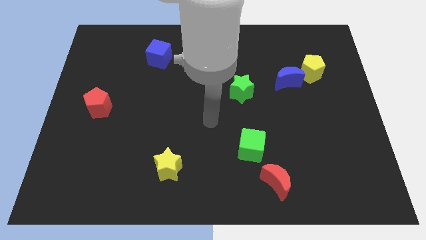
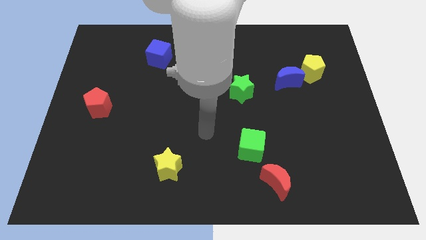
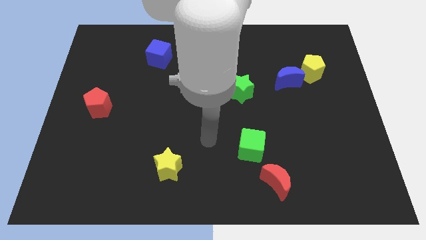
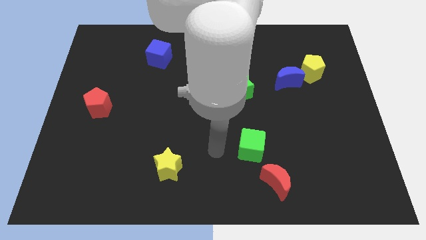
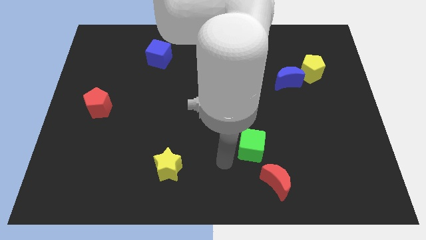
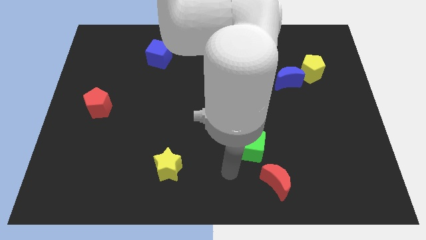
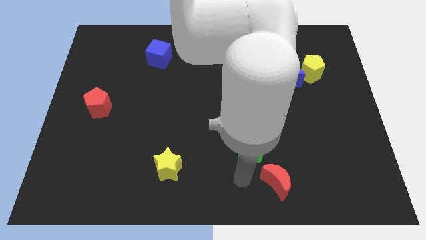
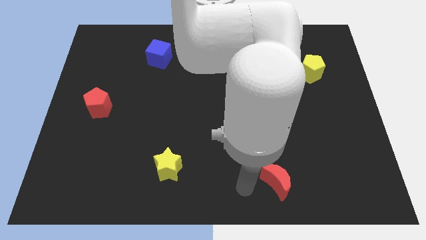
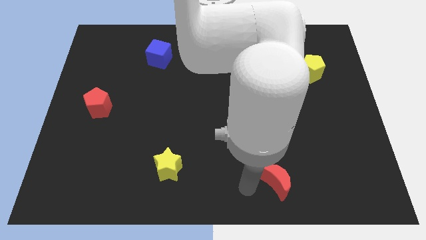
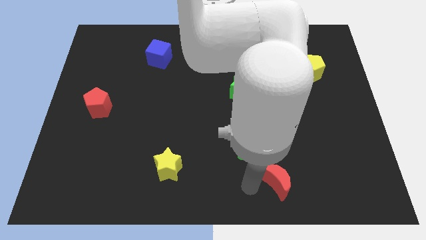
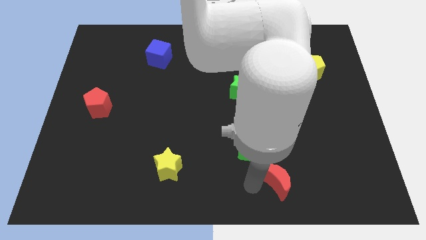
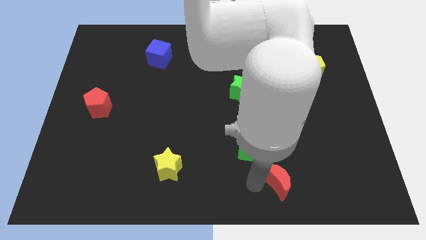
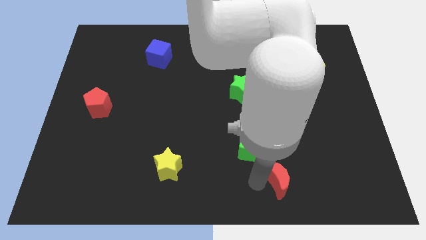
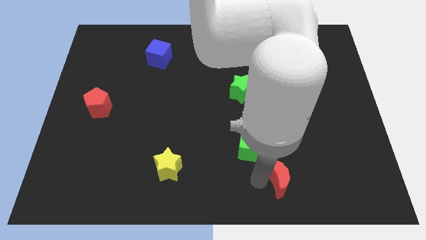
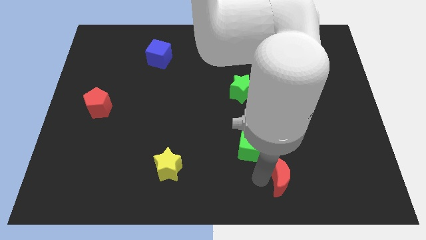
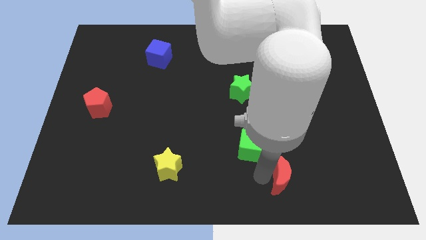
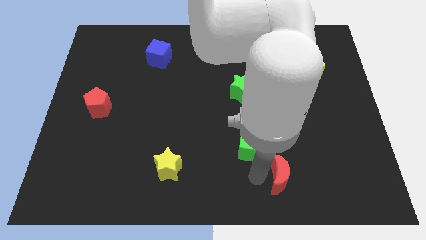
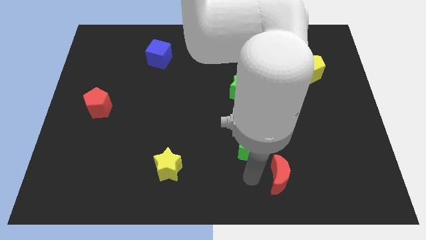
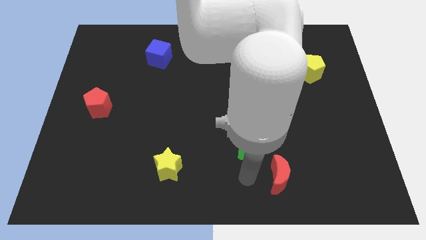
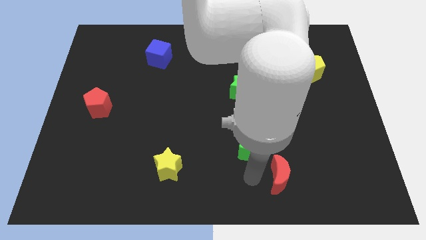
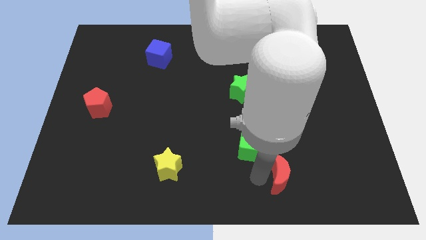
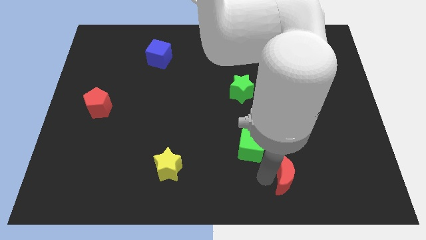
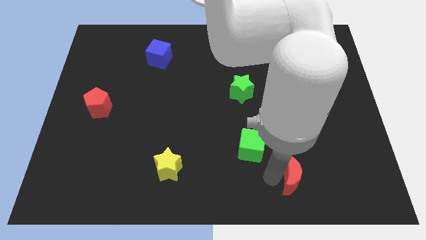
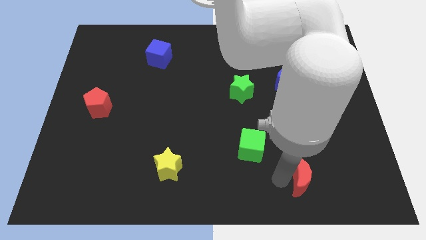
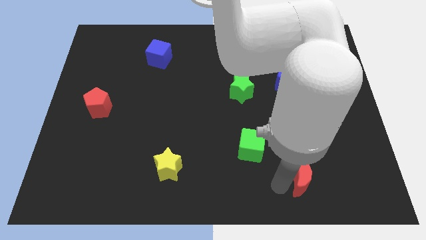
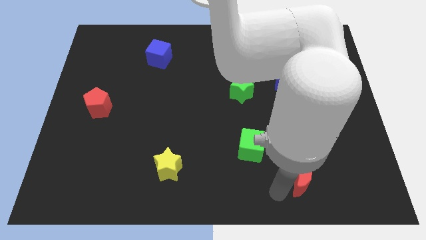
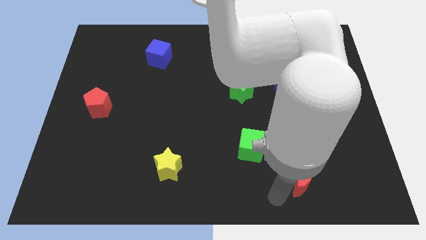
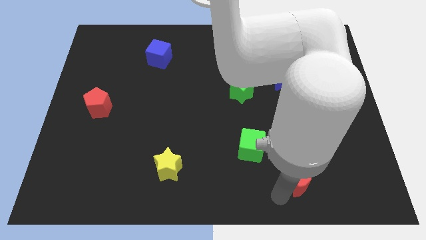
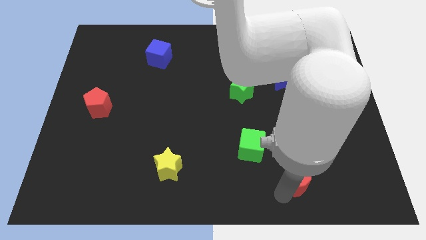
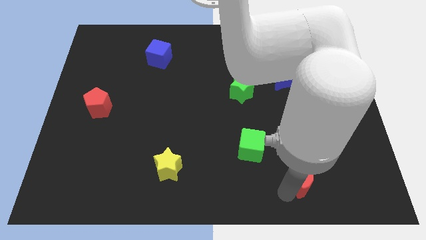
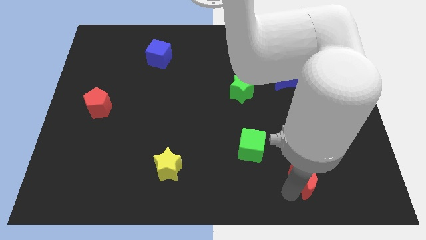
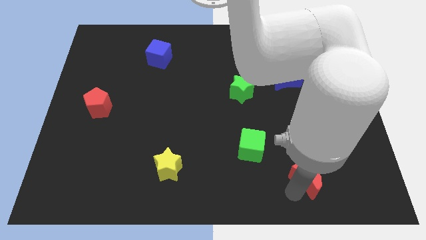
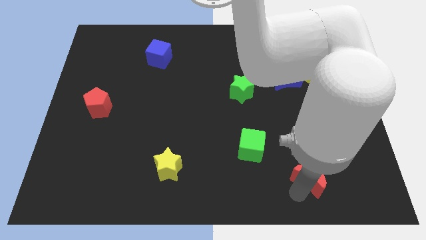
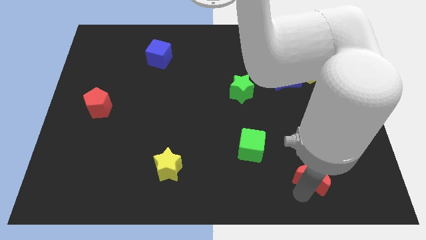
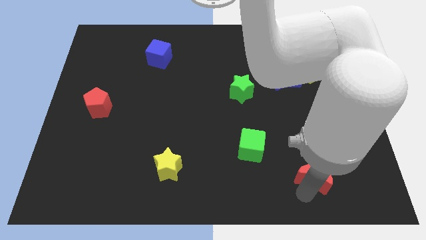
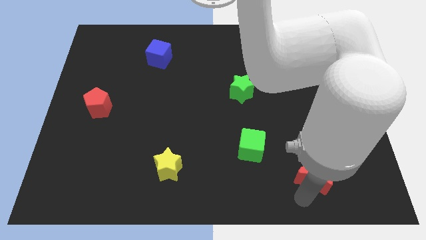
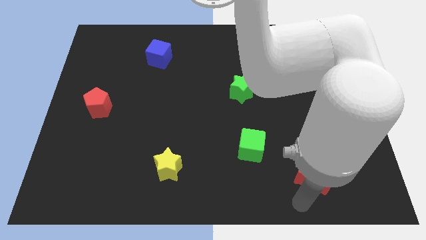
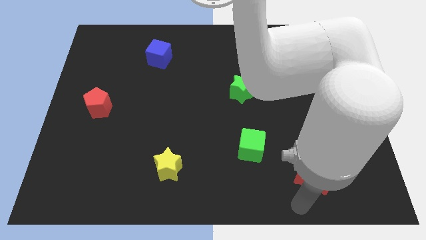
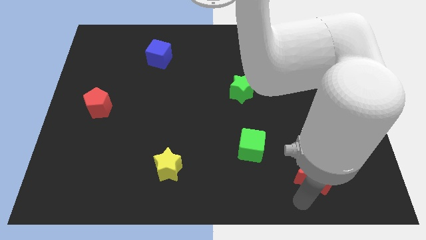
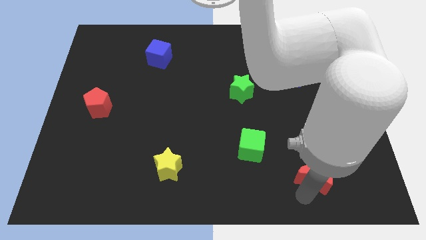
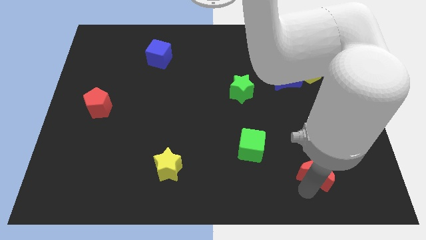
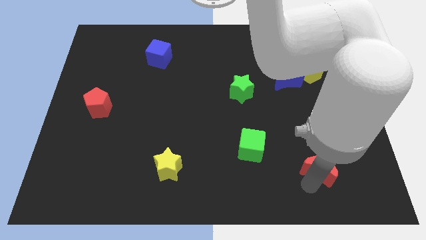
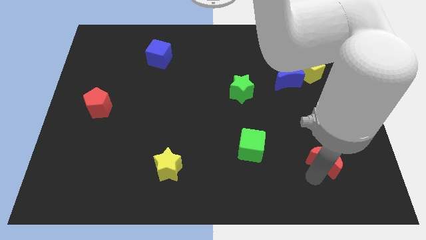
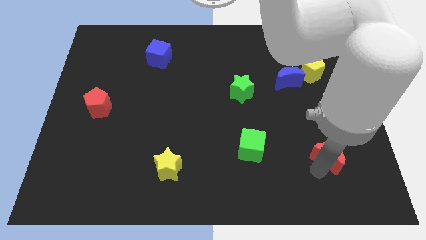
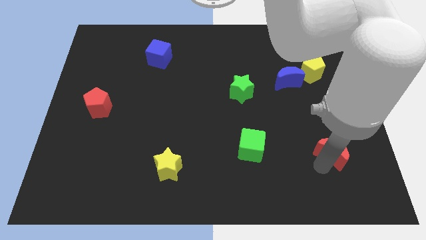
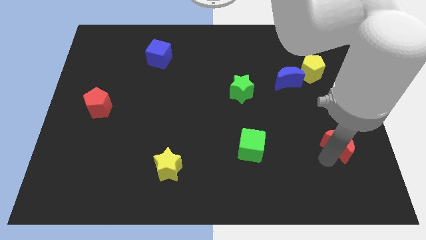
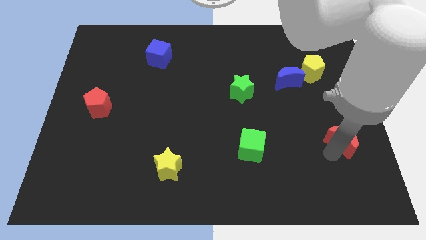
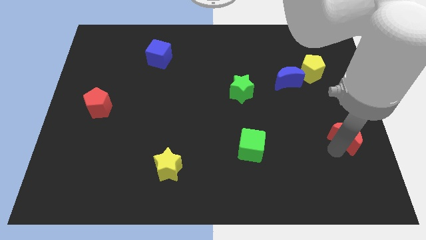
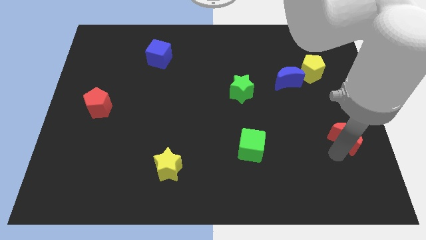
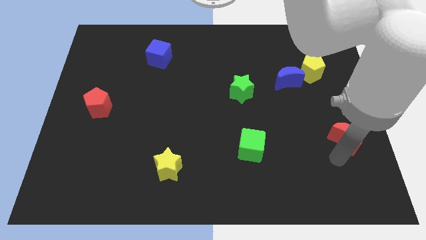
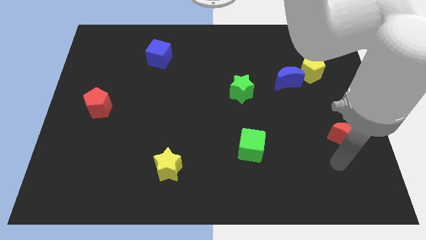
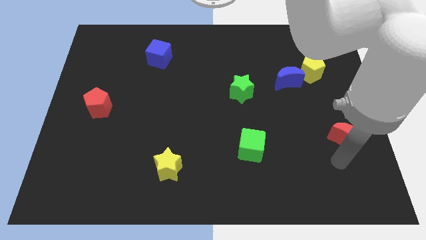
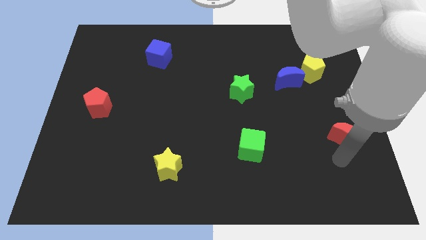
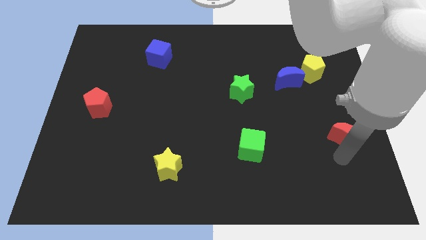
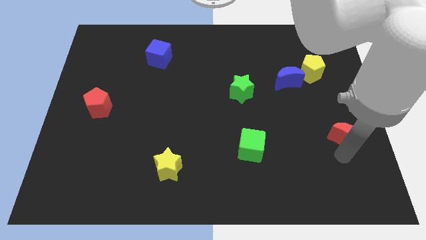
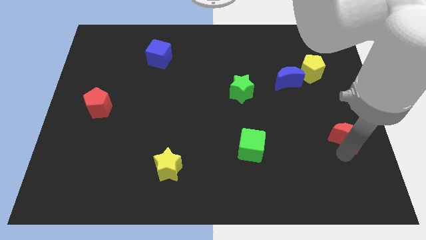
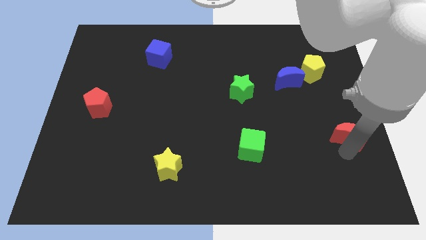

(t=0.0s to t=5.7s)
slide the red moon to the right side

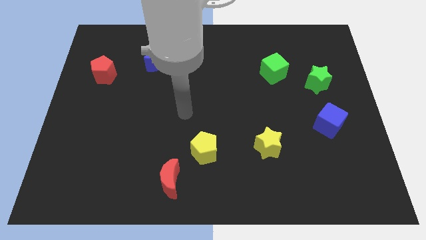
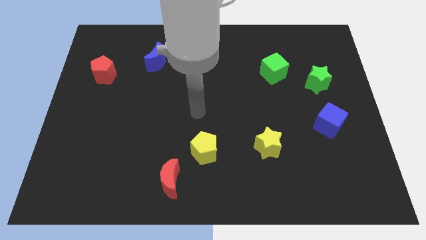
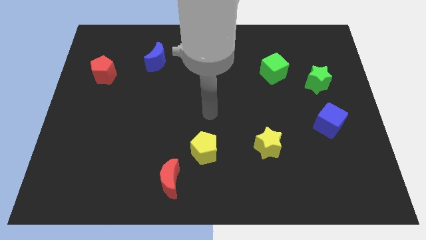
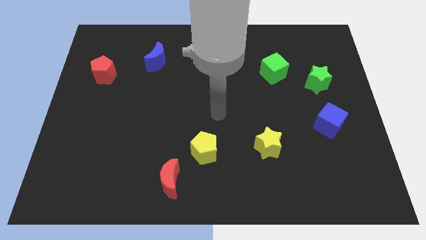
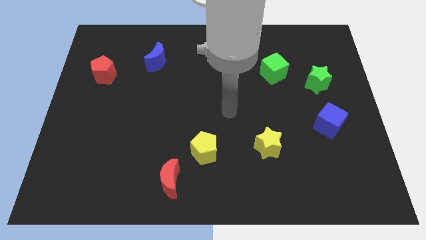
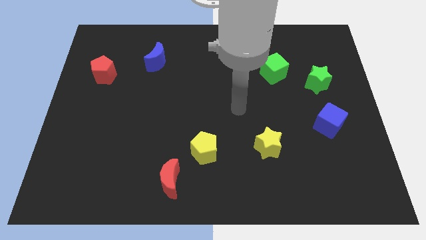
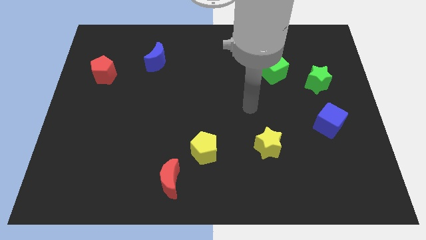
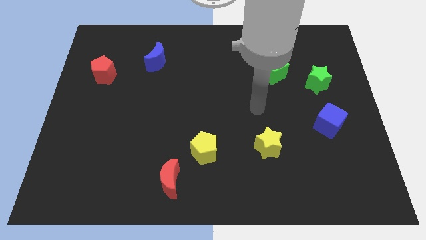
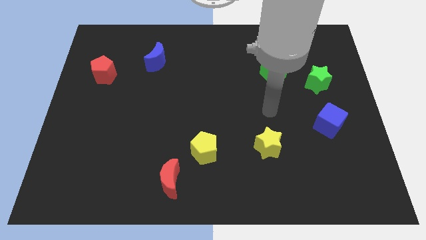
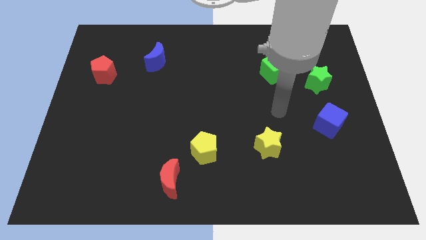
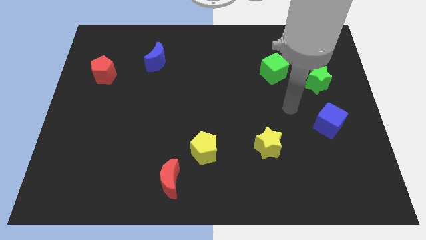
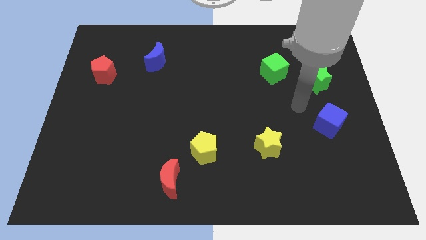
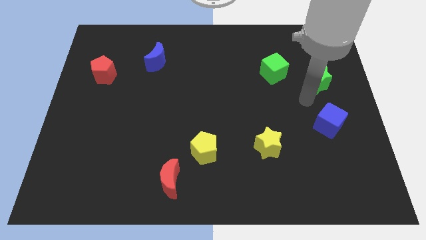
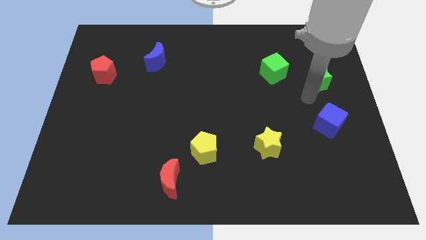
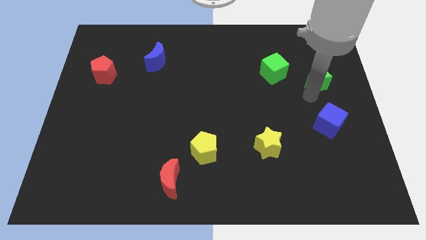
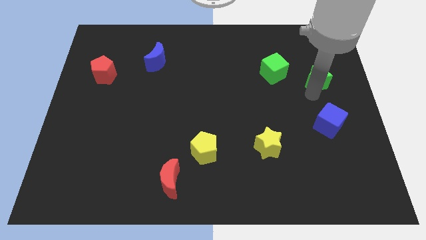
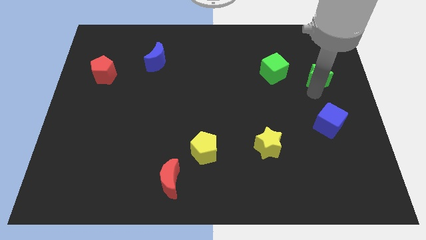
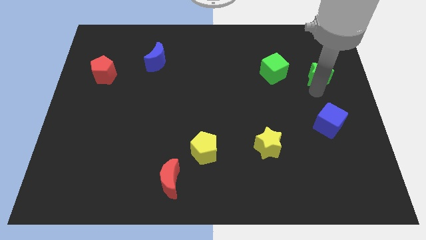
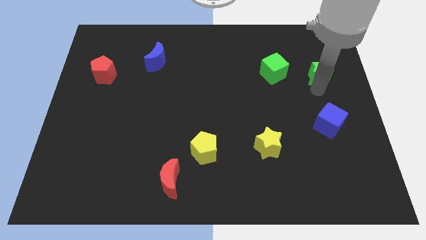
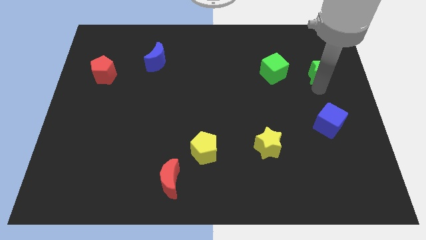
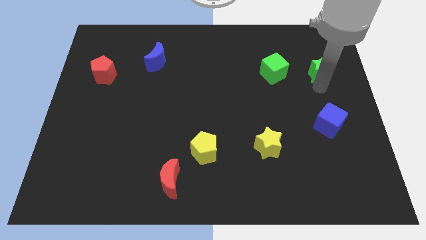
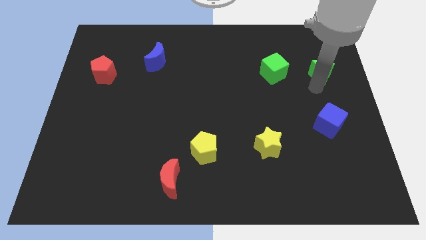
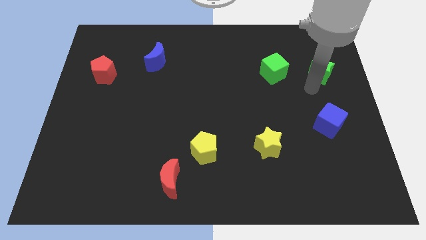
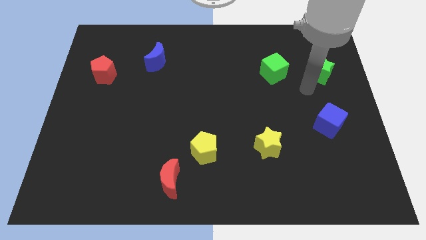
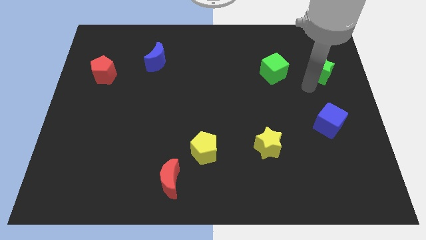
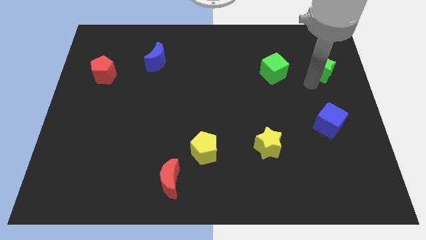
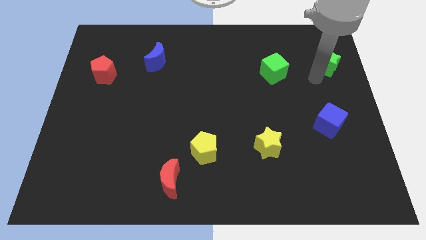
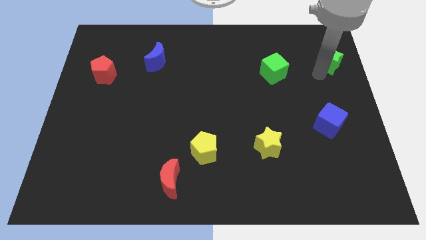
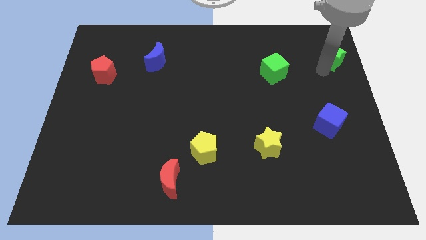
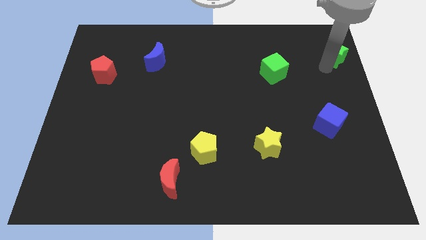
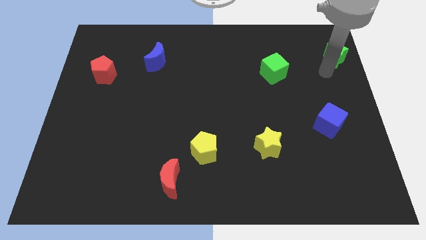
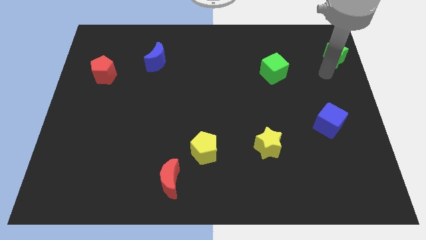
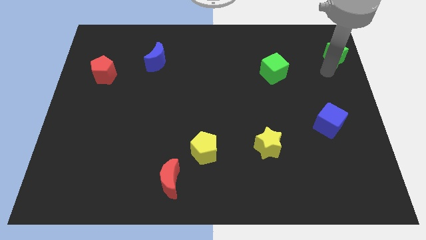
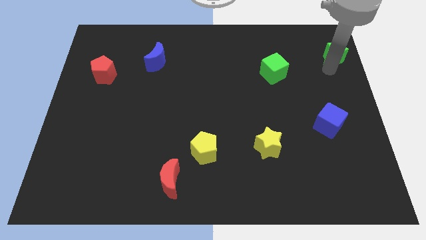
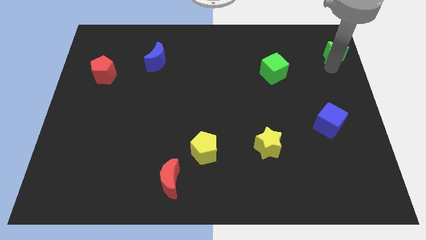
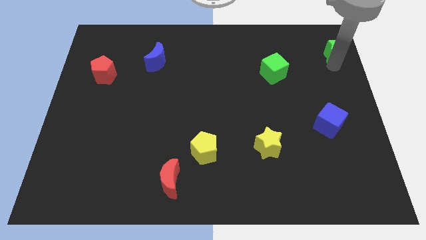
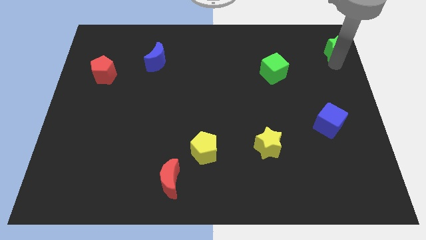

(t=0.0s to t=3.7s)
put the green star to the top right corner
